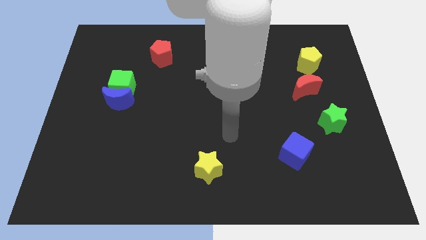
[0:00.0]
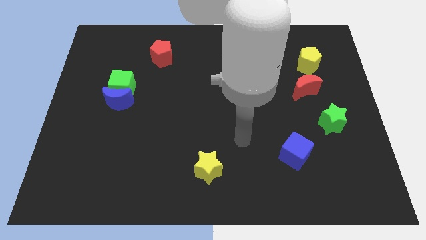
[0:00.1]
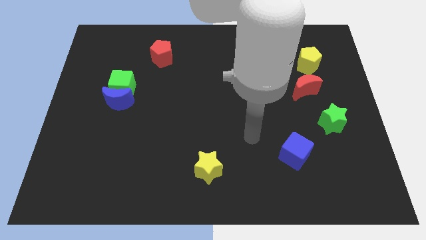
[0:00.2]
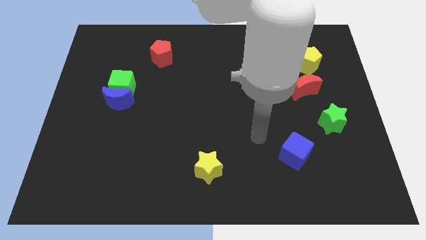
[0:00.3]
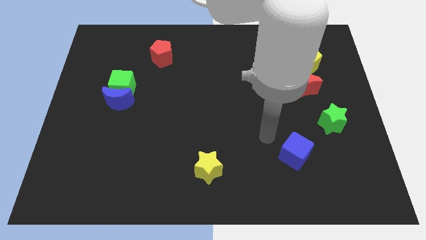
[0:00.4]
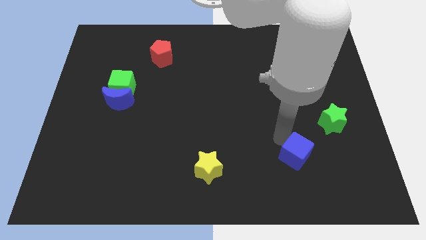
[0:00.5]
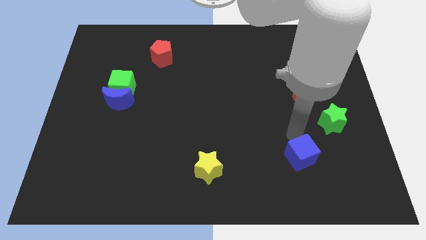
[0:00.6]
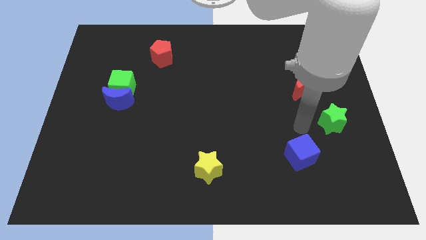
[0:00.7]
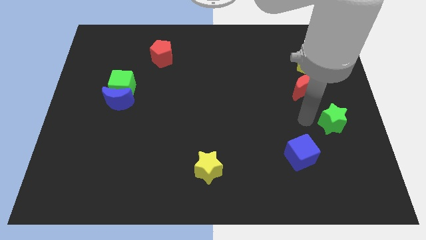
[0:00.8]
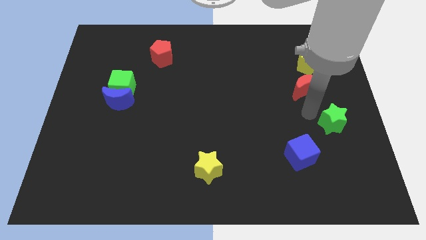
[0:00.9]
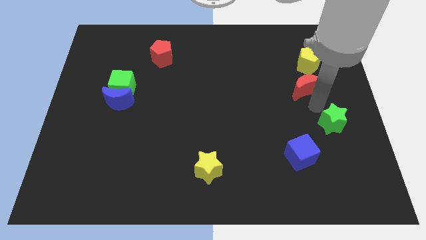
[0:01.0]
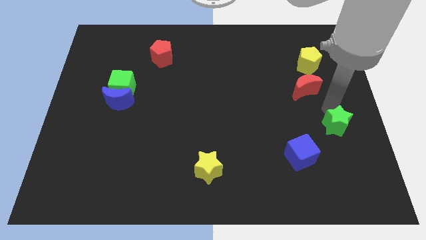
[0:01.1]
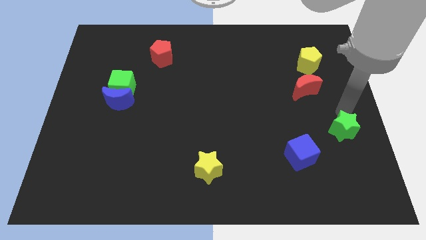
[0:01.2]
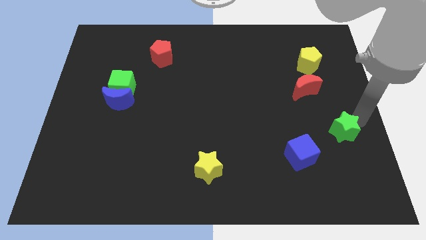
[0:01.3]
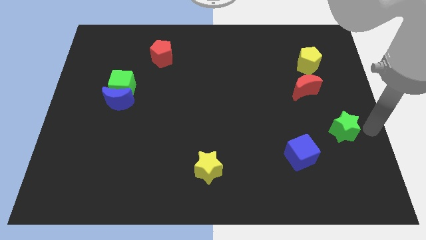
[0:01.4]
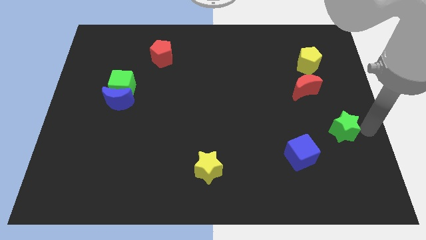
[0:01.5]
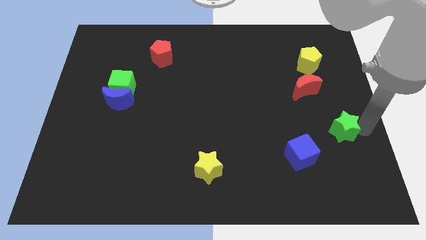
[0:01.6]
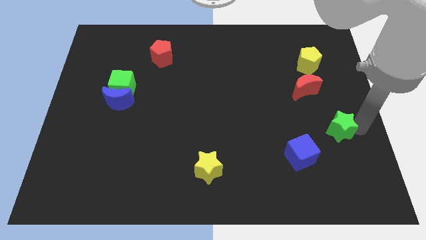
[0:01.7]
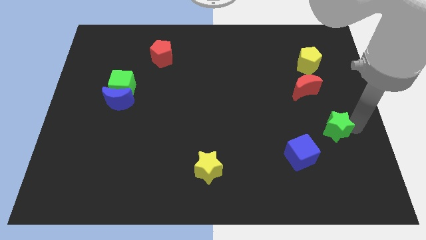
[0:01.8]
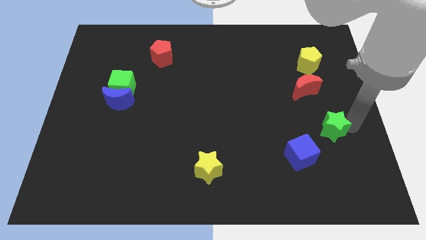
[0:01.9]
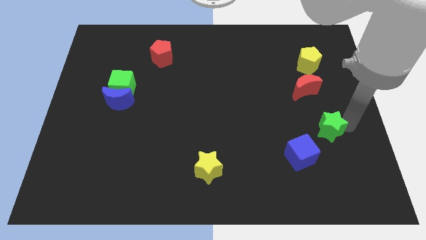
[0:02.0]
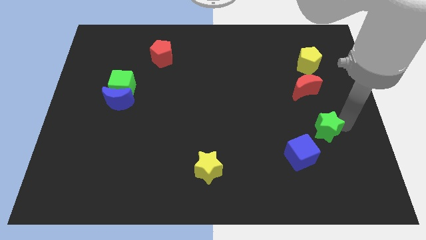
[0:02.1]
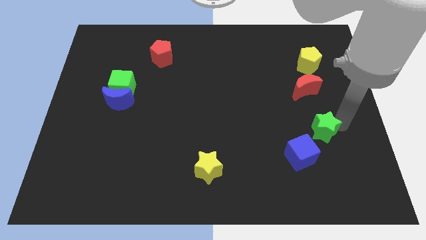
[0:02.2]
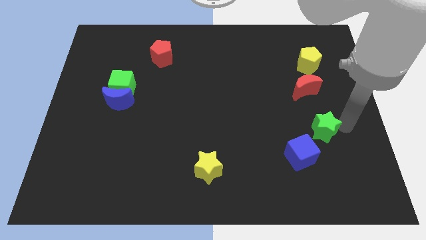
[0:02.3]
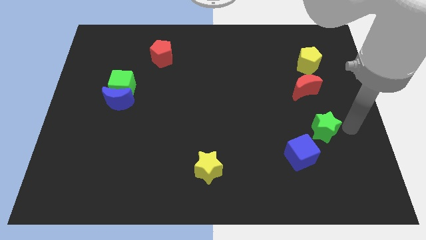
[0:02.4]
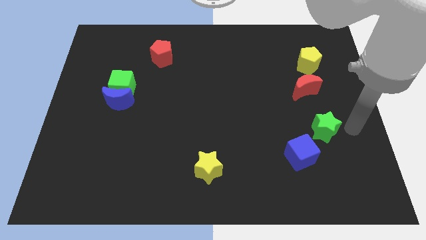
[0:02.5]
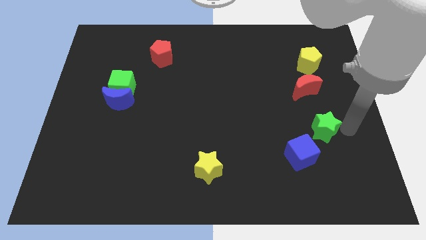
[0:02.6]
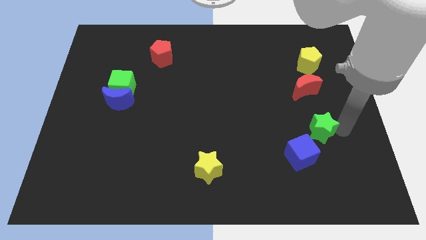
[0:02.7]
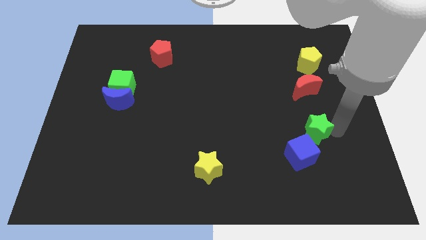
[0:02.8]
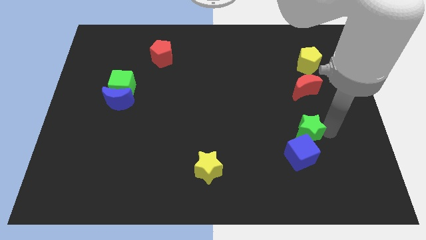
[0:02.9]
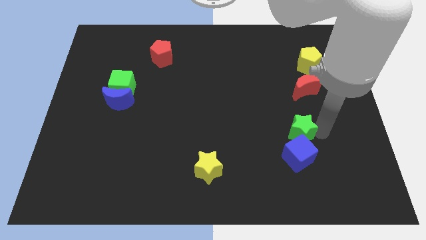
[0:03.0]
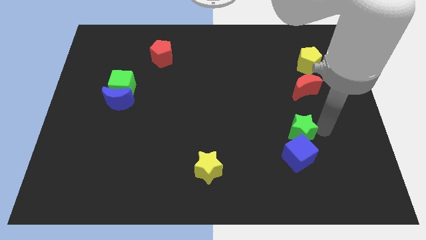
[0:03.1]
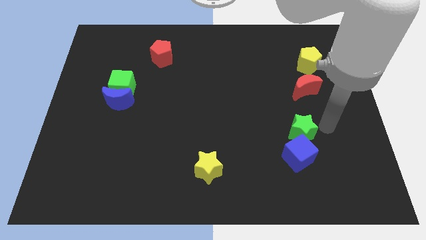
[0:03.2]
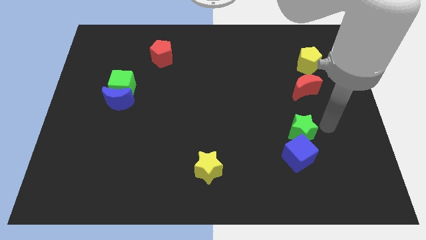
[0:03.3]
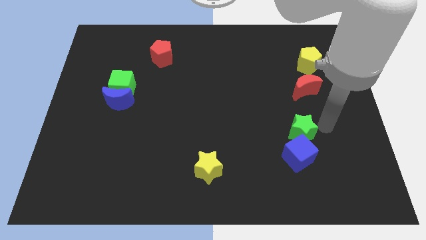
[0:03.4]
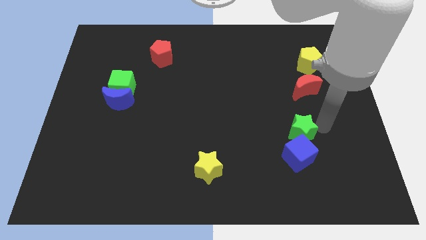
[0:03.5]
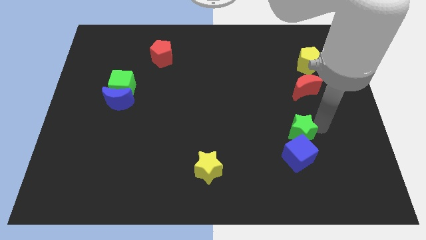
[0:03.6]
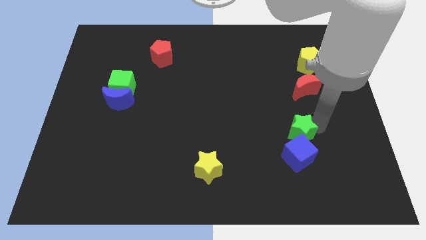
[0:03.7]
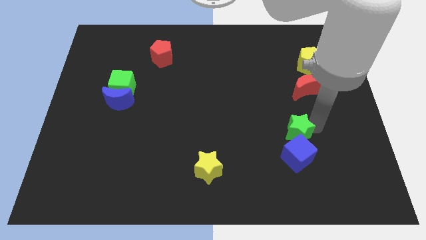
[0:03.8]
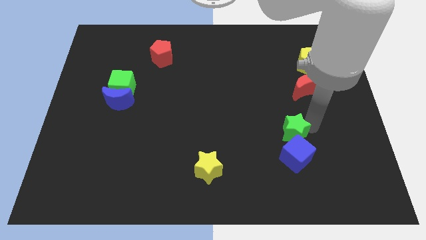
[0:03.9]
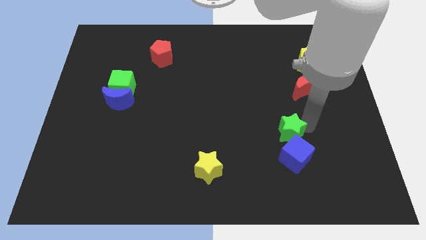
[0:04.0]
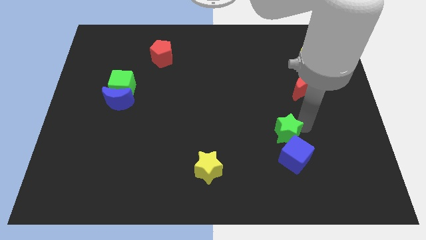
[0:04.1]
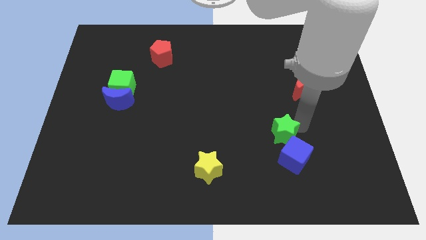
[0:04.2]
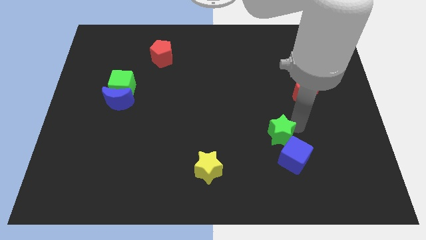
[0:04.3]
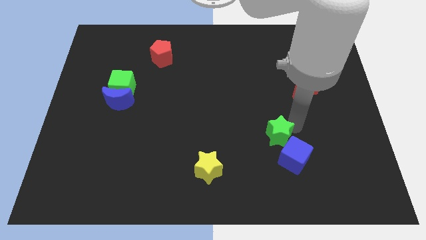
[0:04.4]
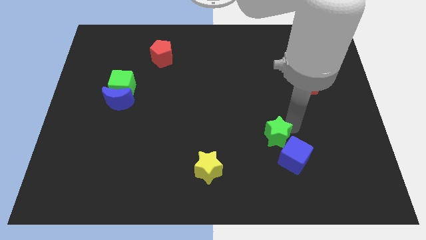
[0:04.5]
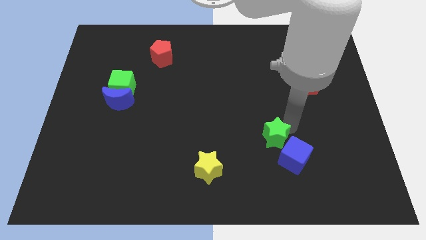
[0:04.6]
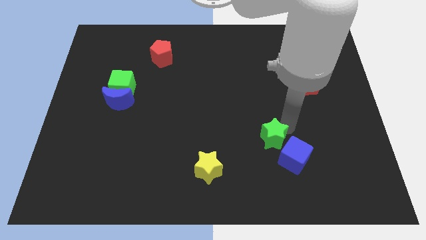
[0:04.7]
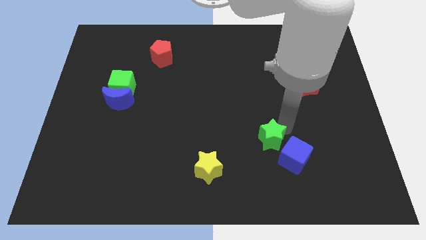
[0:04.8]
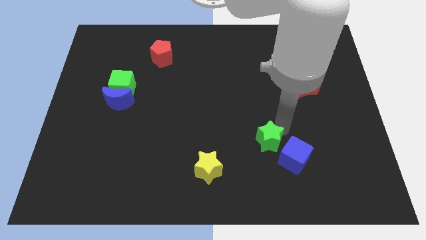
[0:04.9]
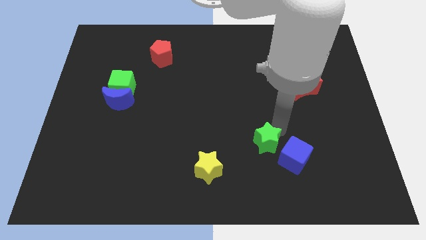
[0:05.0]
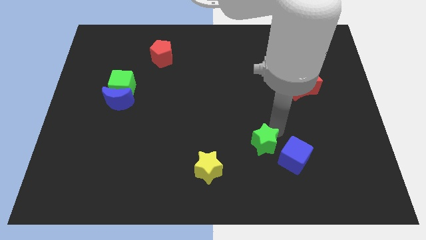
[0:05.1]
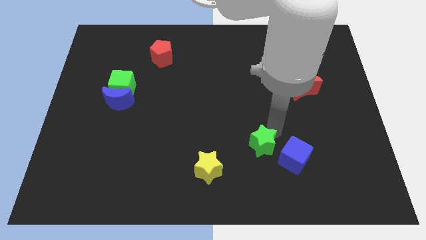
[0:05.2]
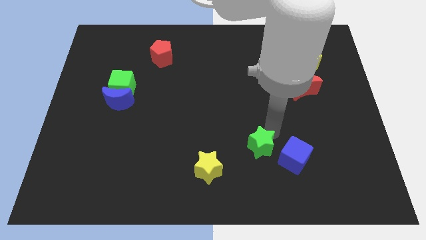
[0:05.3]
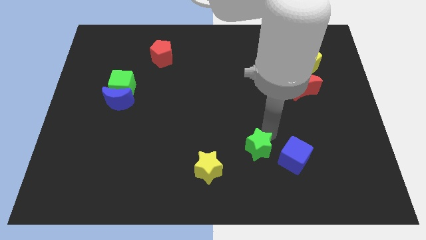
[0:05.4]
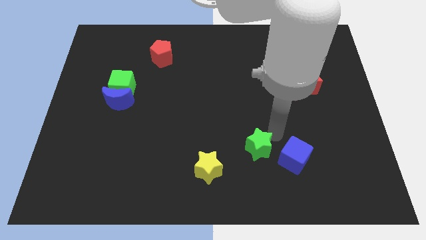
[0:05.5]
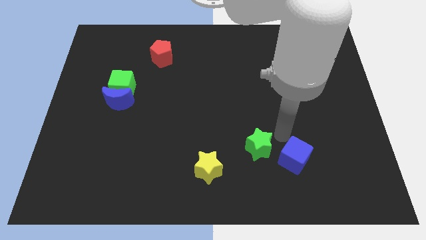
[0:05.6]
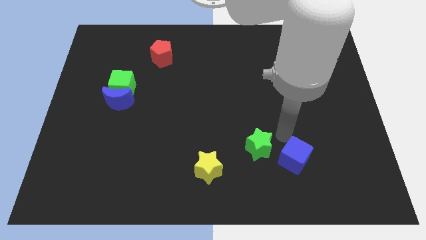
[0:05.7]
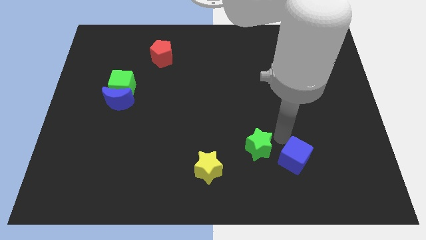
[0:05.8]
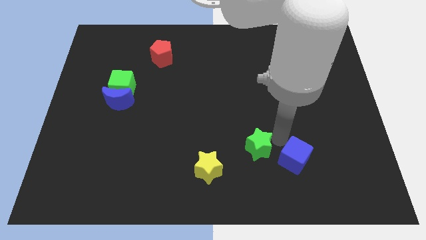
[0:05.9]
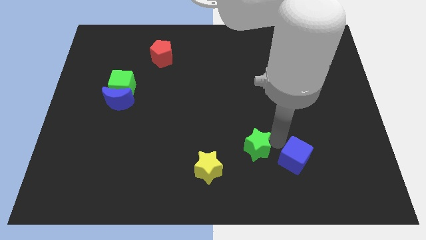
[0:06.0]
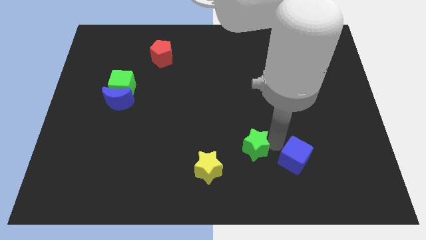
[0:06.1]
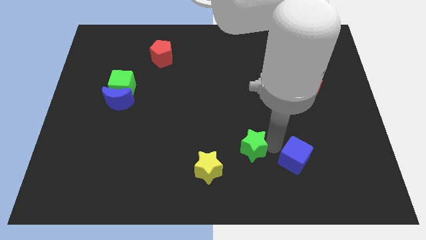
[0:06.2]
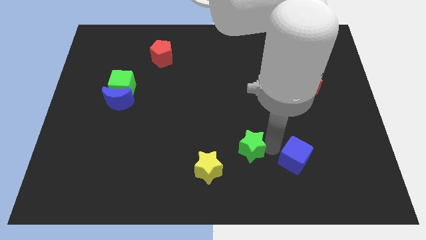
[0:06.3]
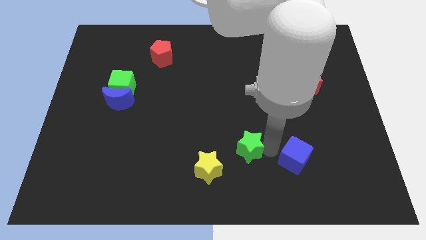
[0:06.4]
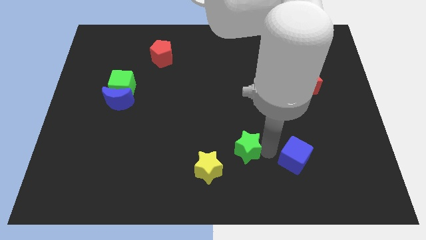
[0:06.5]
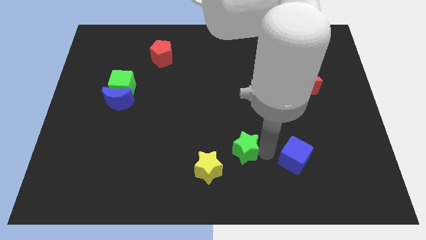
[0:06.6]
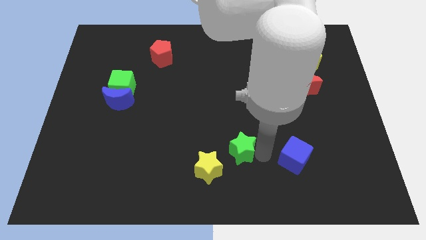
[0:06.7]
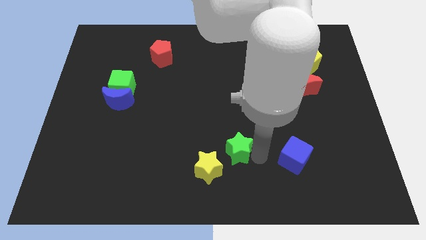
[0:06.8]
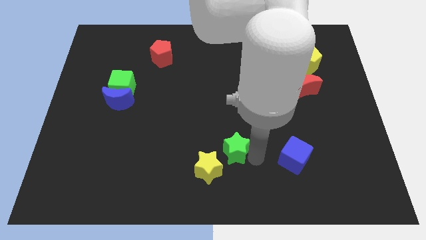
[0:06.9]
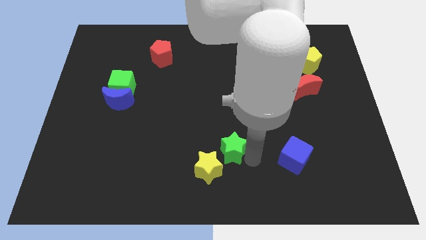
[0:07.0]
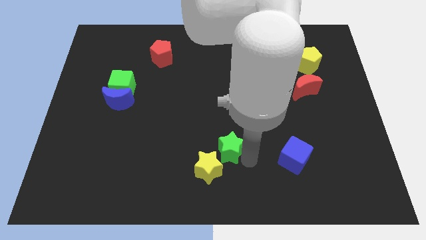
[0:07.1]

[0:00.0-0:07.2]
put the green star to the yellow star
